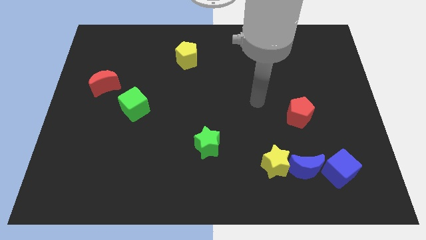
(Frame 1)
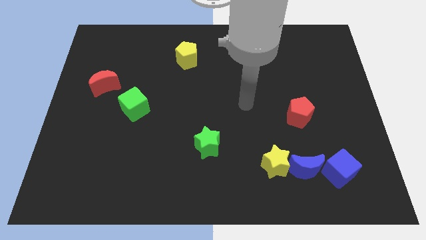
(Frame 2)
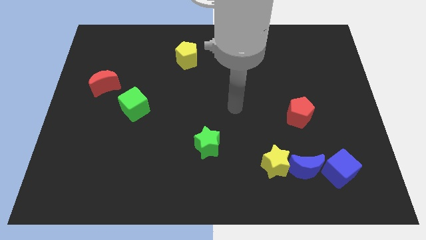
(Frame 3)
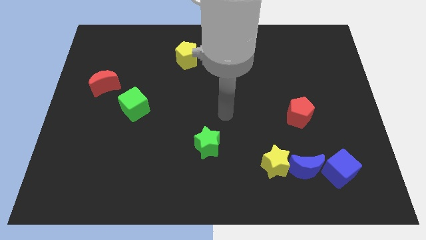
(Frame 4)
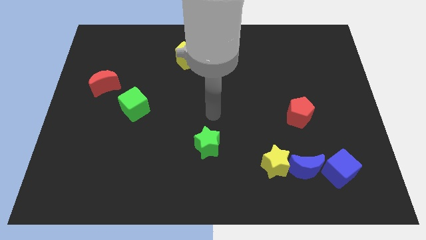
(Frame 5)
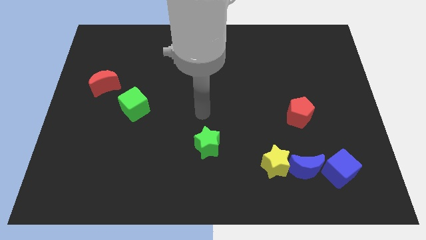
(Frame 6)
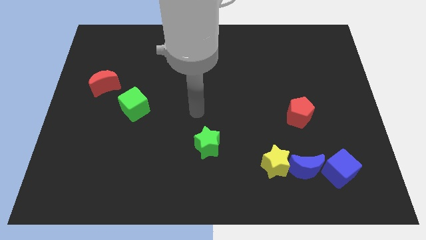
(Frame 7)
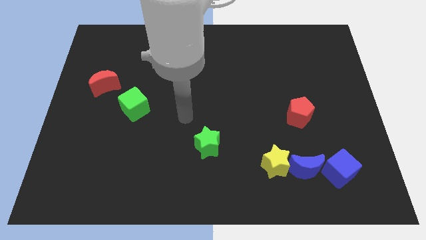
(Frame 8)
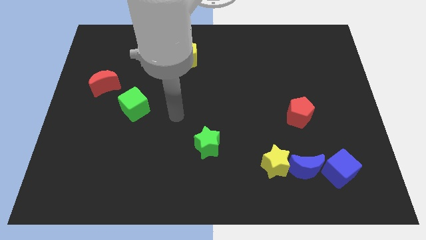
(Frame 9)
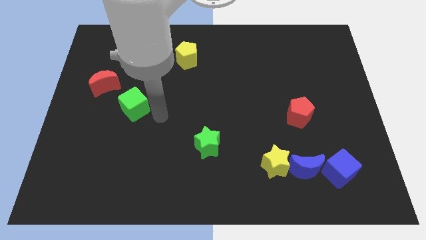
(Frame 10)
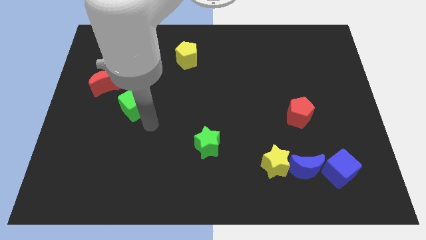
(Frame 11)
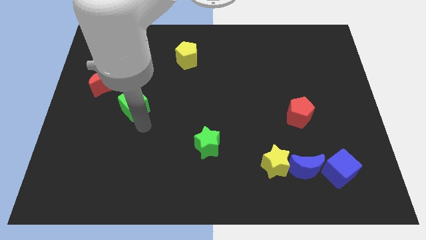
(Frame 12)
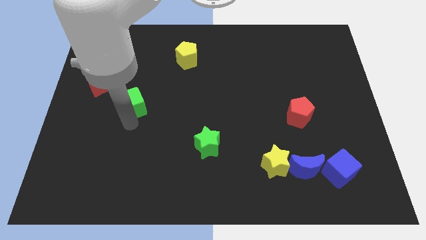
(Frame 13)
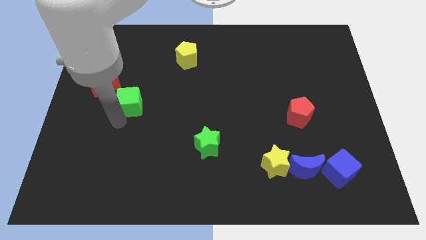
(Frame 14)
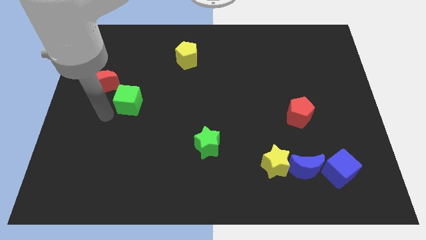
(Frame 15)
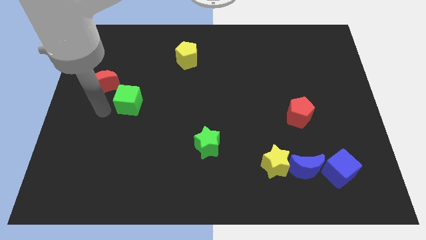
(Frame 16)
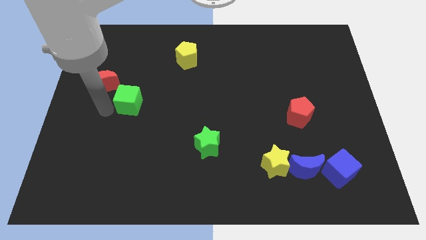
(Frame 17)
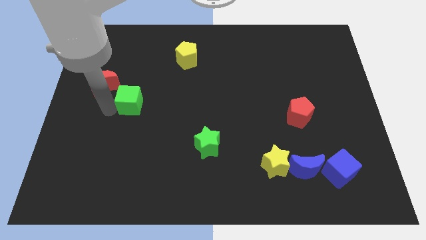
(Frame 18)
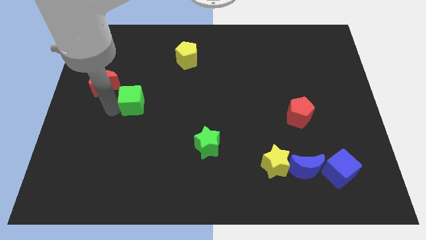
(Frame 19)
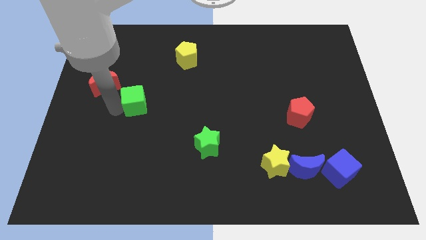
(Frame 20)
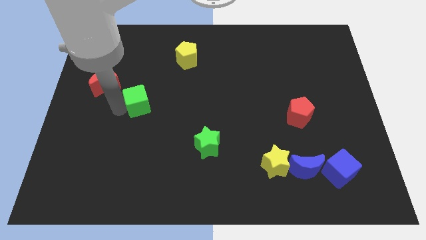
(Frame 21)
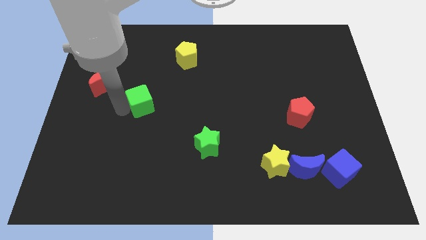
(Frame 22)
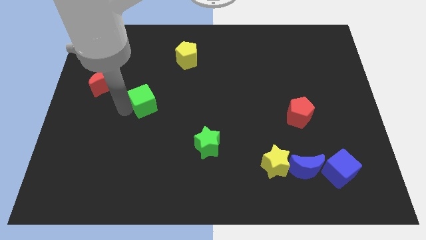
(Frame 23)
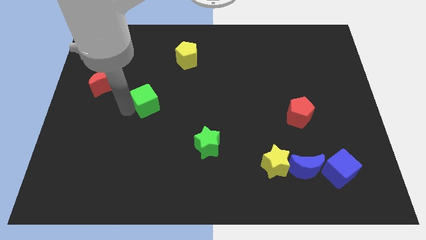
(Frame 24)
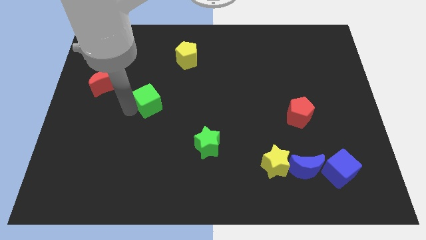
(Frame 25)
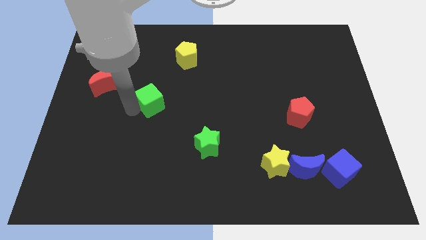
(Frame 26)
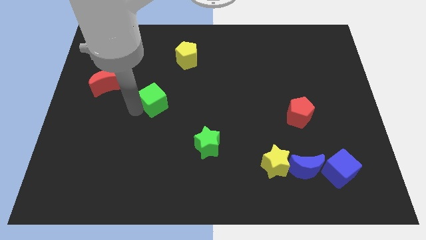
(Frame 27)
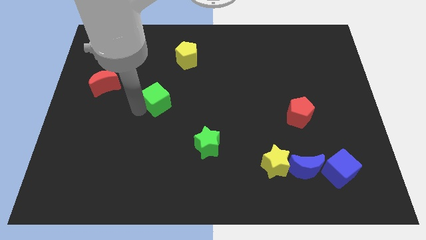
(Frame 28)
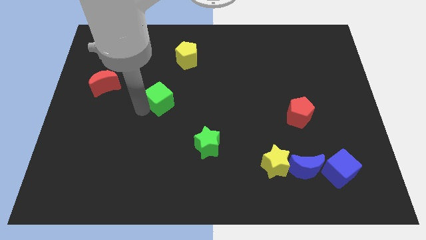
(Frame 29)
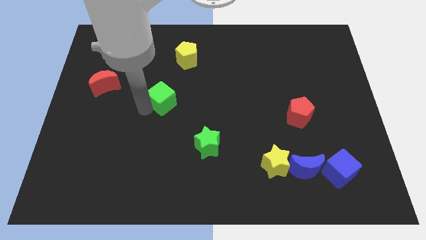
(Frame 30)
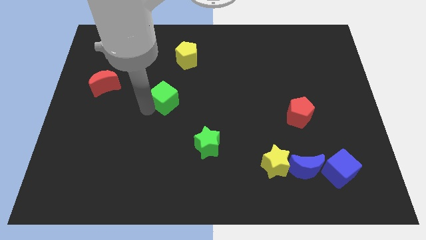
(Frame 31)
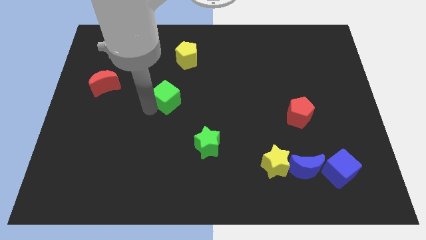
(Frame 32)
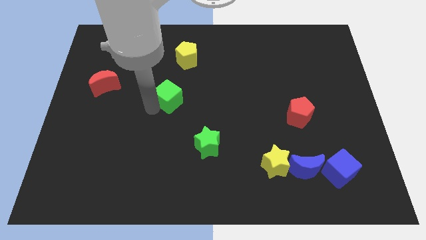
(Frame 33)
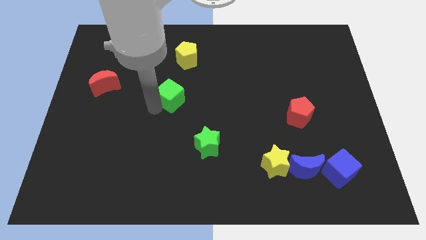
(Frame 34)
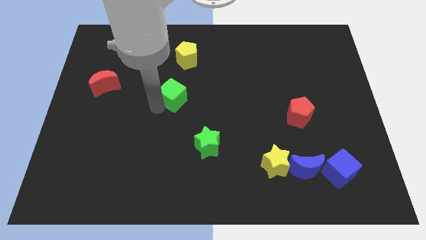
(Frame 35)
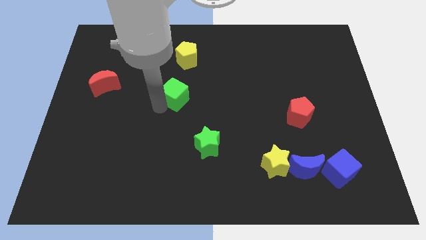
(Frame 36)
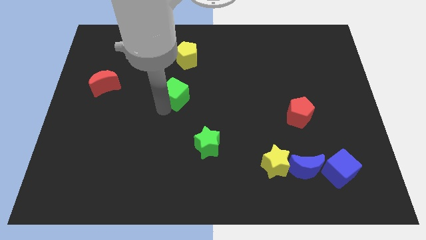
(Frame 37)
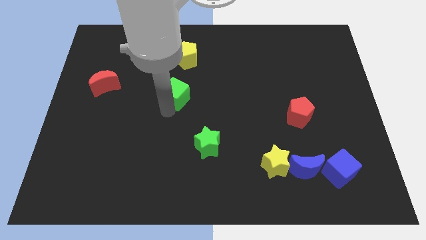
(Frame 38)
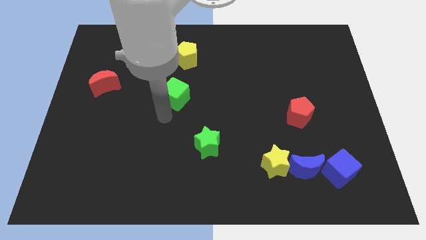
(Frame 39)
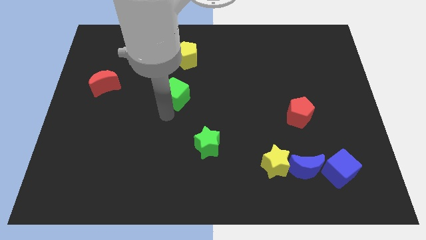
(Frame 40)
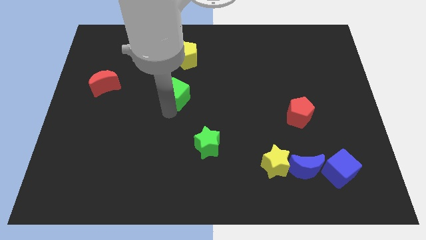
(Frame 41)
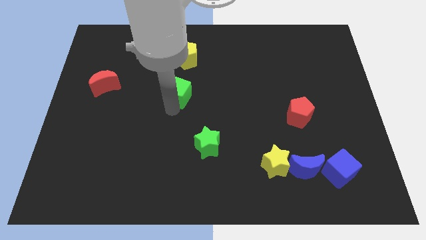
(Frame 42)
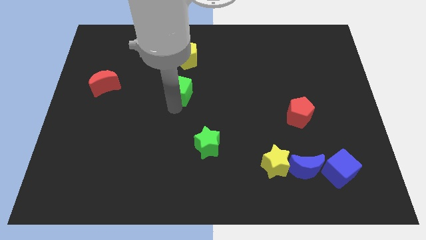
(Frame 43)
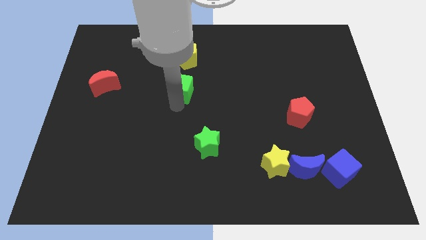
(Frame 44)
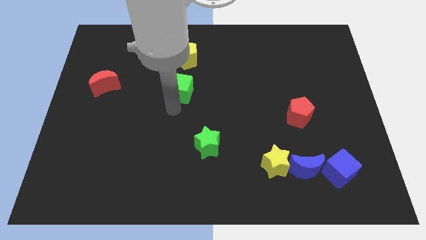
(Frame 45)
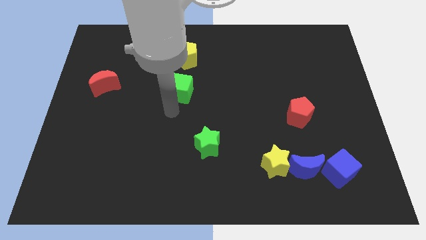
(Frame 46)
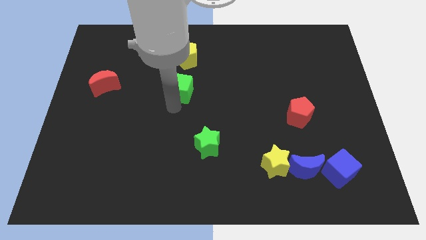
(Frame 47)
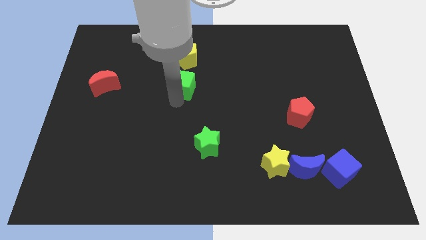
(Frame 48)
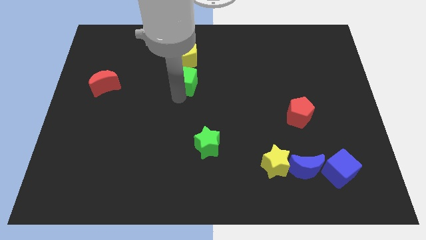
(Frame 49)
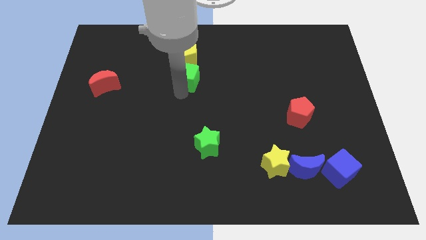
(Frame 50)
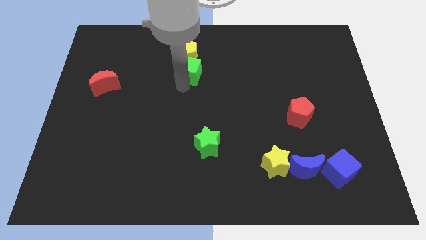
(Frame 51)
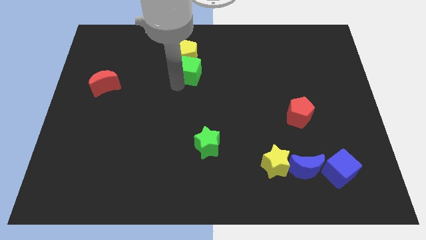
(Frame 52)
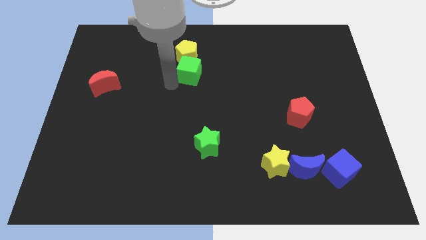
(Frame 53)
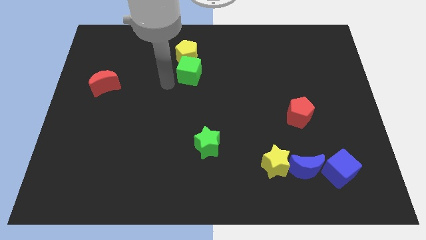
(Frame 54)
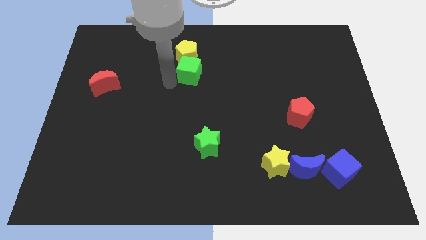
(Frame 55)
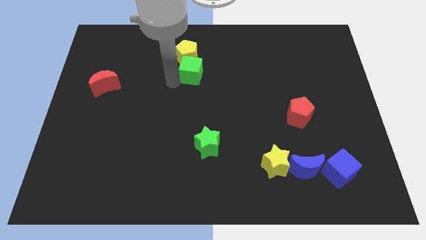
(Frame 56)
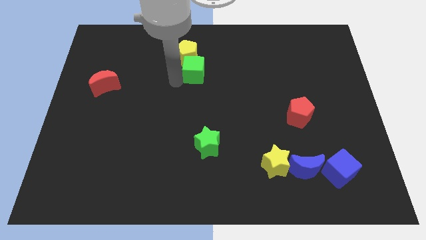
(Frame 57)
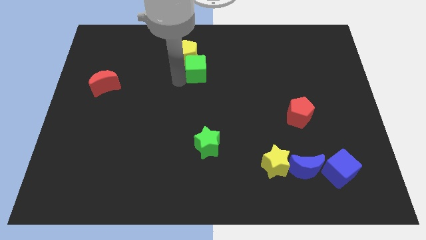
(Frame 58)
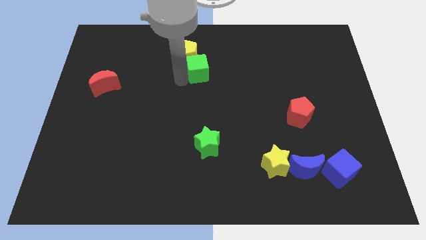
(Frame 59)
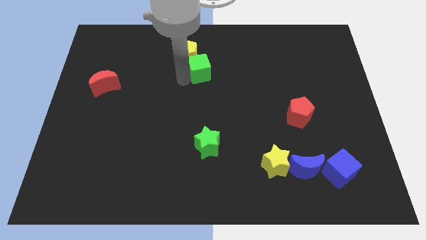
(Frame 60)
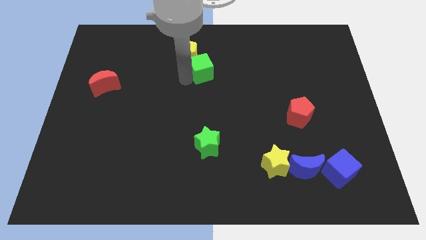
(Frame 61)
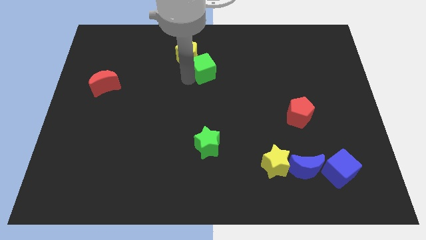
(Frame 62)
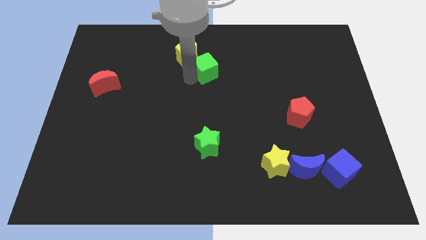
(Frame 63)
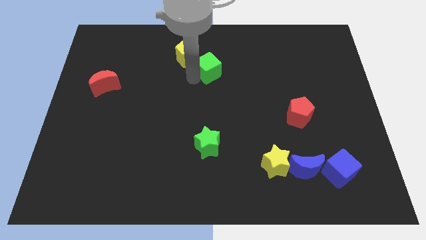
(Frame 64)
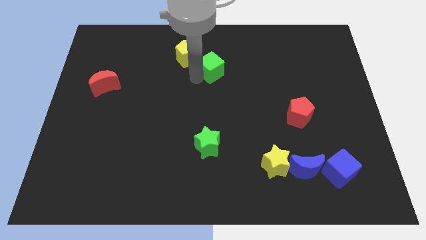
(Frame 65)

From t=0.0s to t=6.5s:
push the green cube to the right side of the yellow pentagon

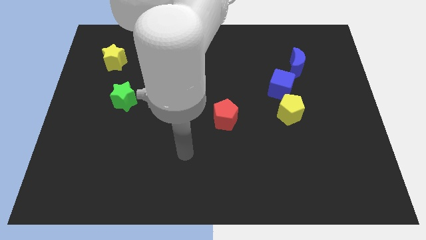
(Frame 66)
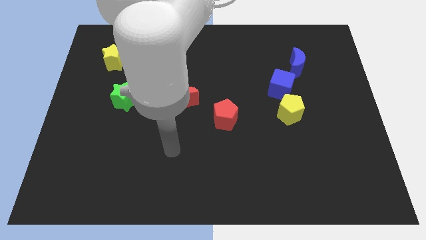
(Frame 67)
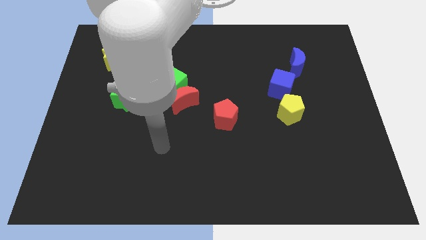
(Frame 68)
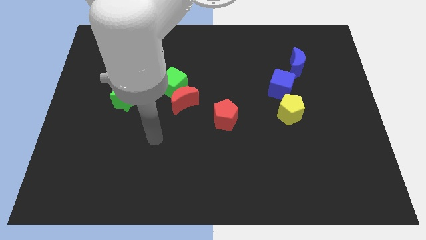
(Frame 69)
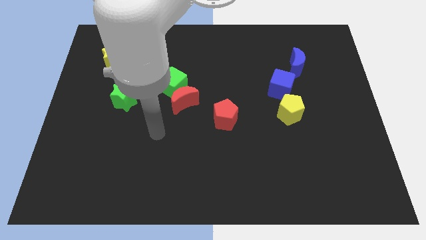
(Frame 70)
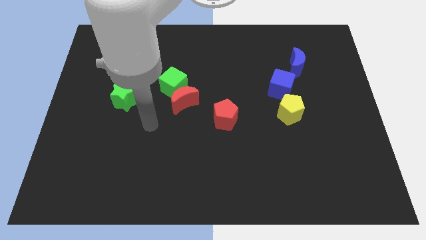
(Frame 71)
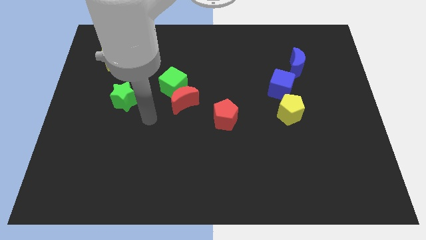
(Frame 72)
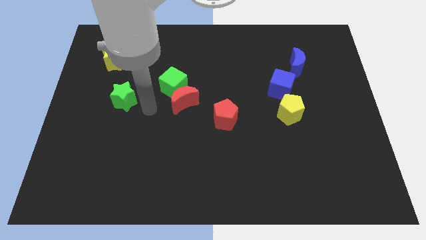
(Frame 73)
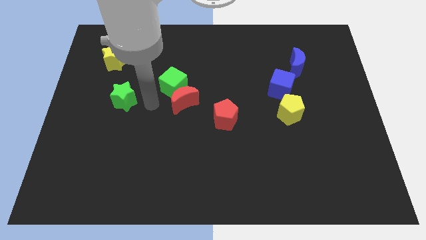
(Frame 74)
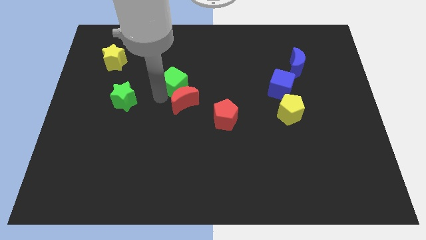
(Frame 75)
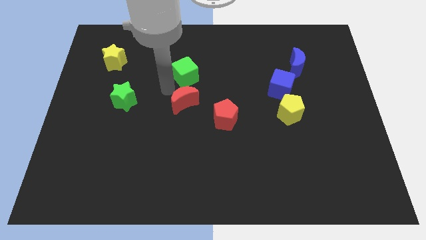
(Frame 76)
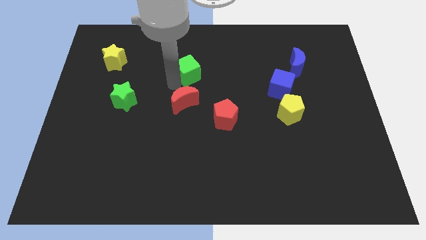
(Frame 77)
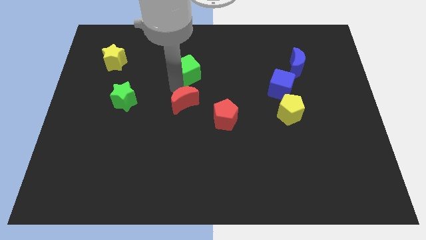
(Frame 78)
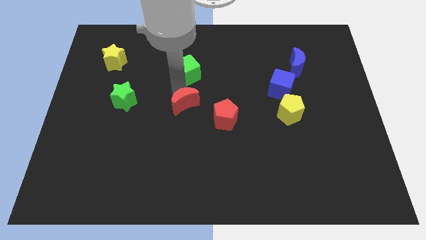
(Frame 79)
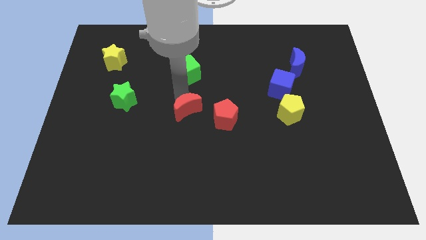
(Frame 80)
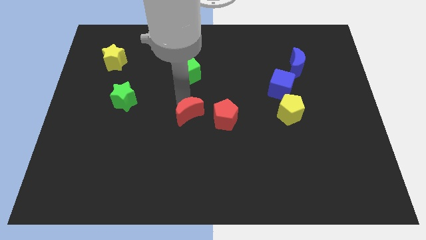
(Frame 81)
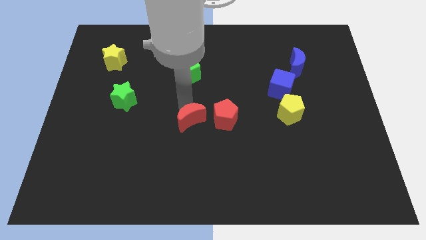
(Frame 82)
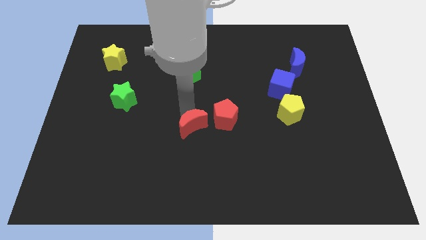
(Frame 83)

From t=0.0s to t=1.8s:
slide the red moon to the bottom left side of the red pentagon
